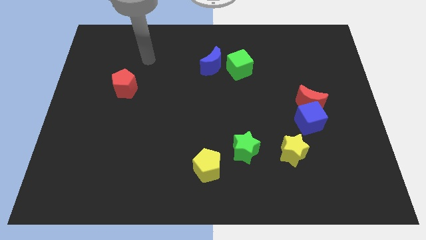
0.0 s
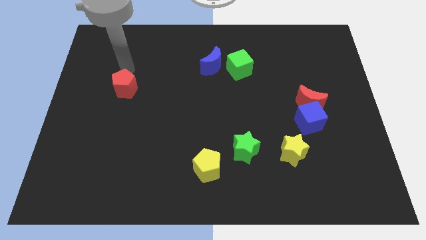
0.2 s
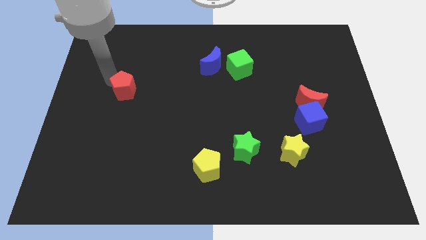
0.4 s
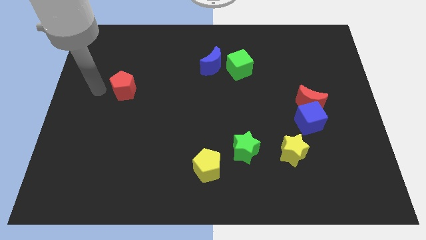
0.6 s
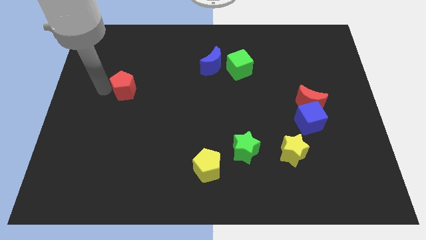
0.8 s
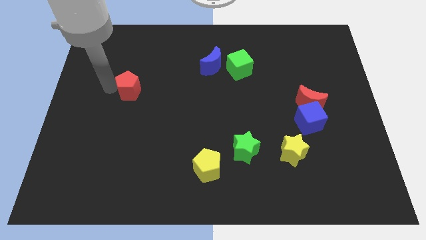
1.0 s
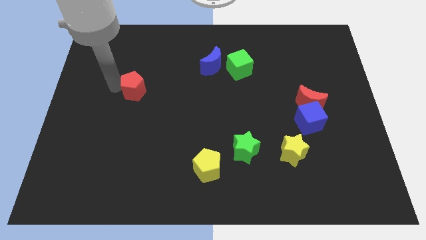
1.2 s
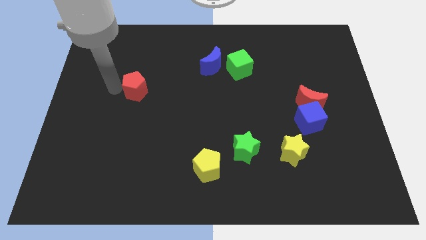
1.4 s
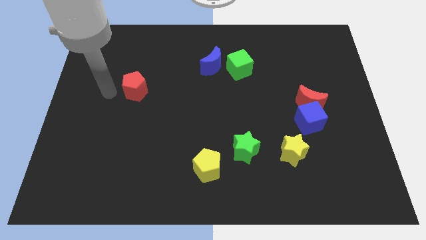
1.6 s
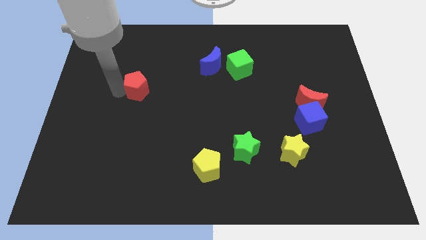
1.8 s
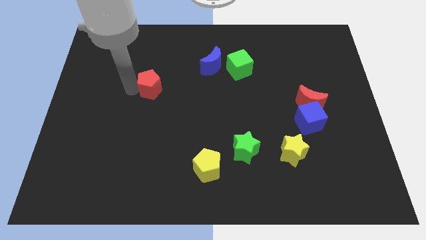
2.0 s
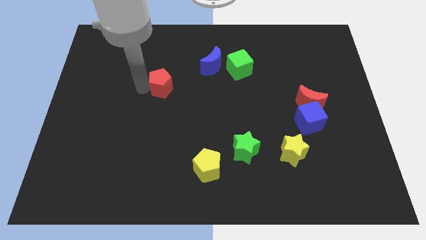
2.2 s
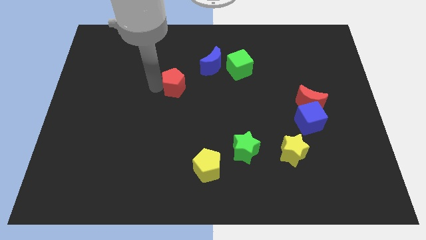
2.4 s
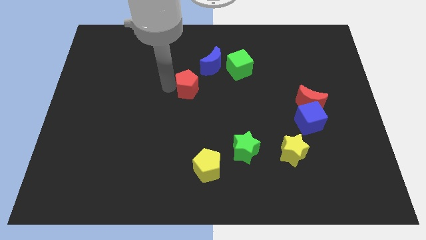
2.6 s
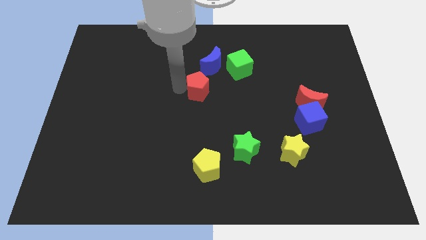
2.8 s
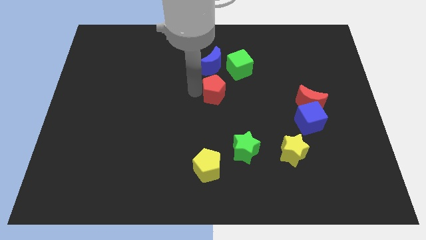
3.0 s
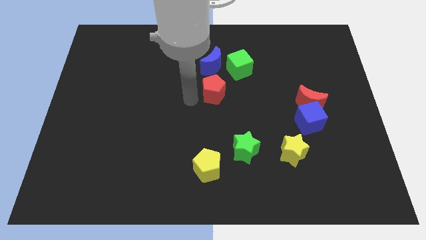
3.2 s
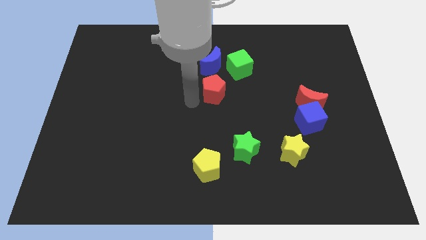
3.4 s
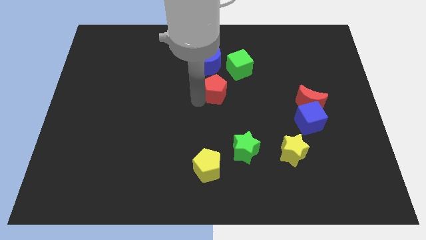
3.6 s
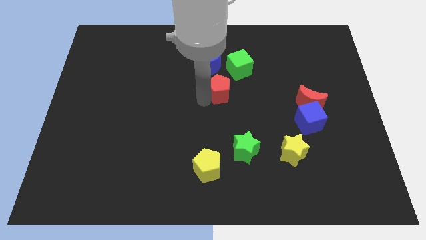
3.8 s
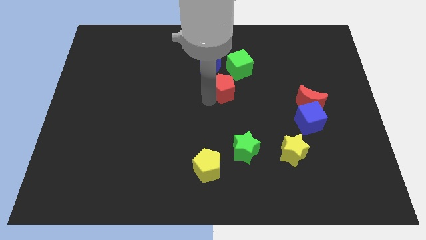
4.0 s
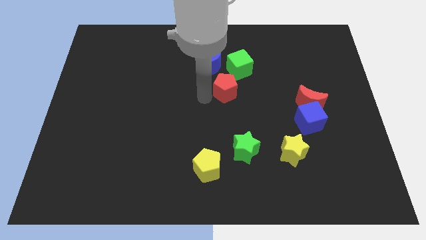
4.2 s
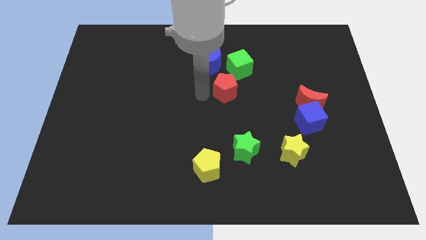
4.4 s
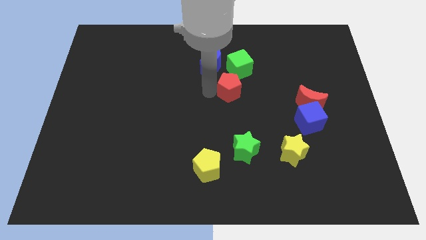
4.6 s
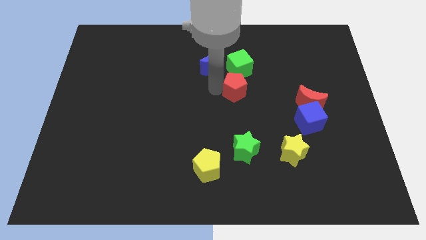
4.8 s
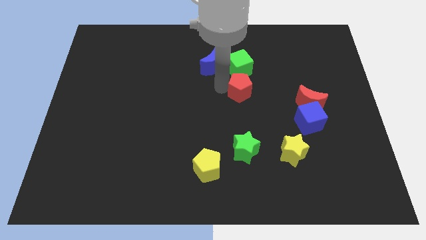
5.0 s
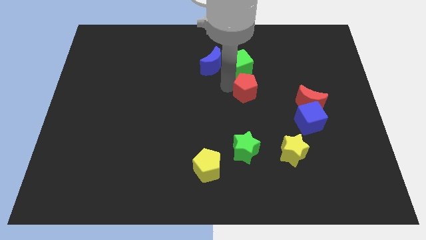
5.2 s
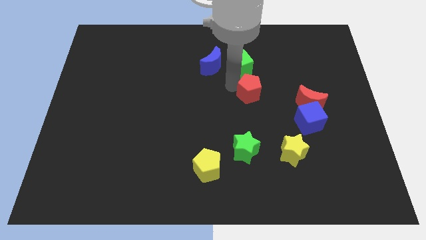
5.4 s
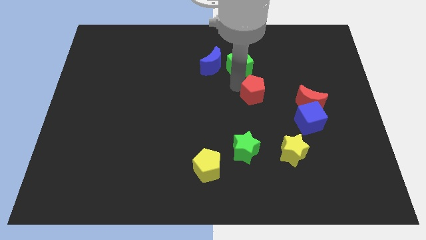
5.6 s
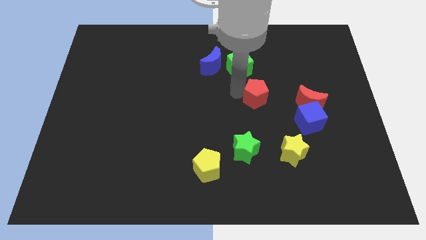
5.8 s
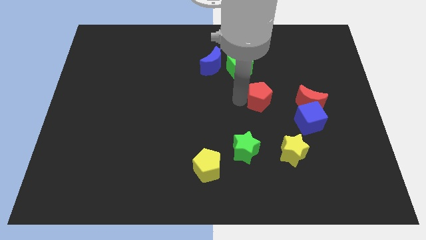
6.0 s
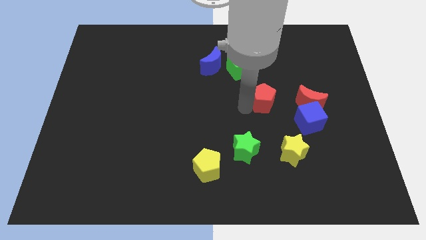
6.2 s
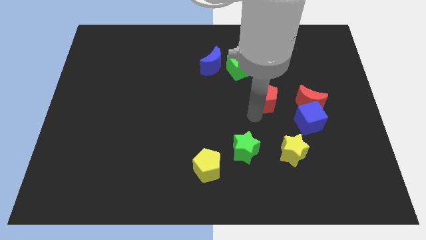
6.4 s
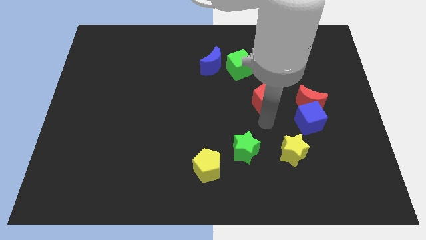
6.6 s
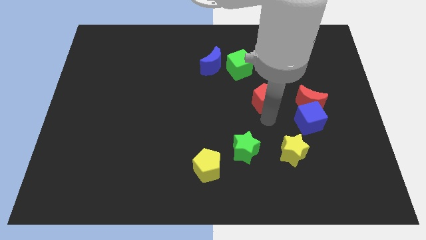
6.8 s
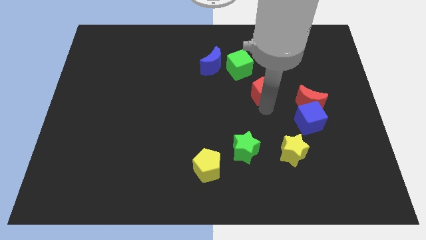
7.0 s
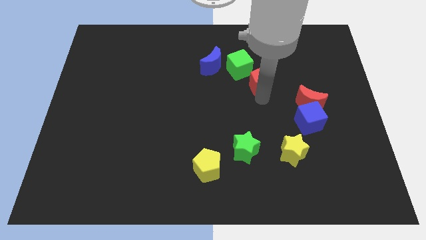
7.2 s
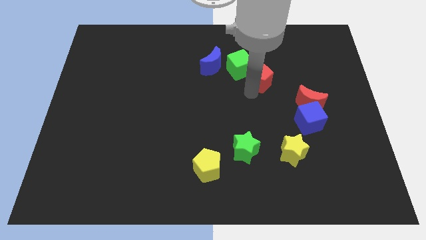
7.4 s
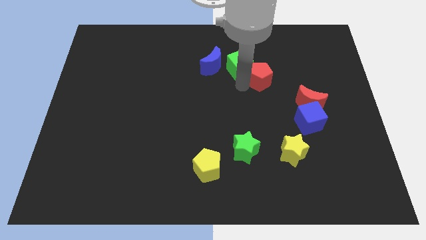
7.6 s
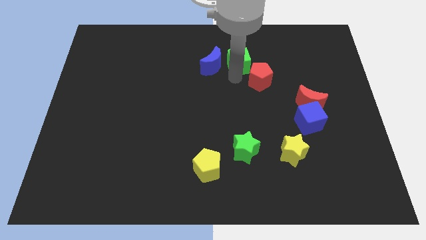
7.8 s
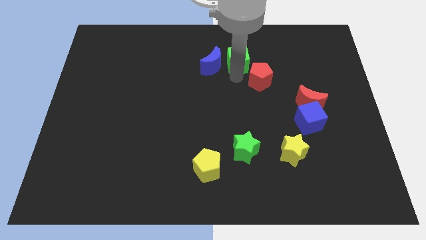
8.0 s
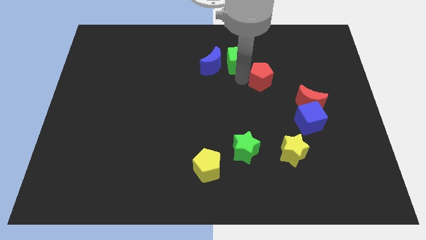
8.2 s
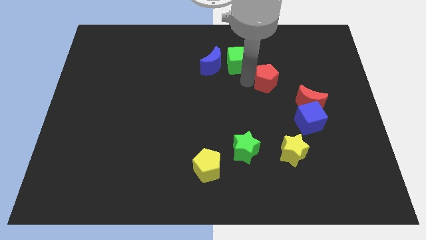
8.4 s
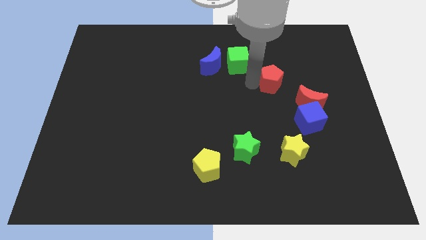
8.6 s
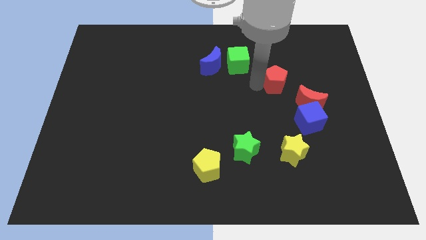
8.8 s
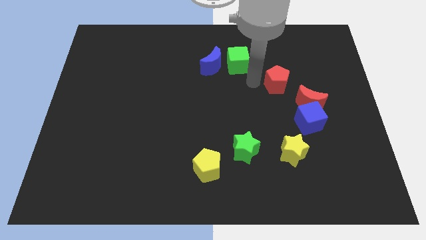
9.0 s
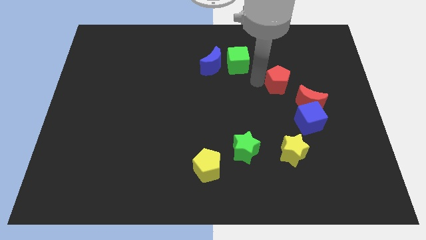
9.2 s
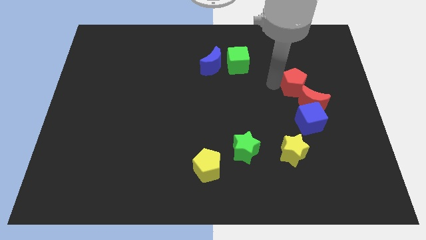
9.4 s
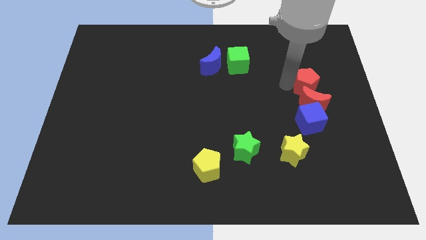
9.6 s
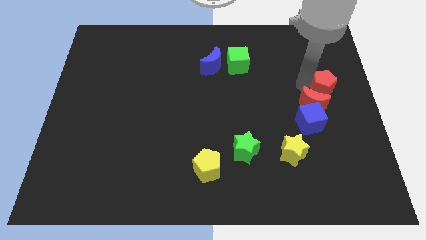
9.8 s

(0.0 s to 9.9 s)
slide the red pentagon to the center right

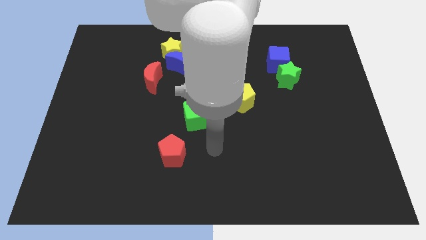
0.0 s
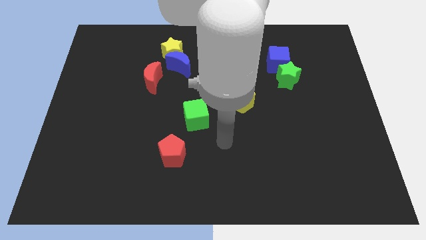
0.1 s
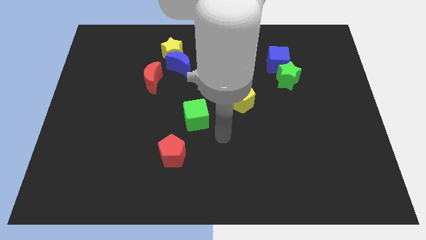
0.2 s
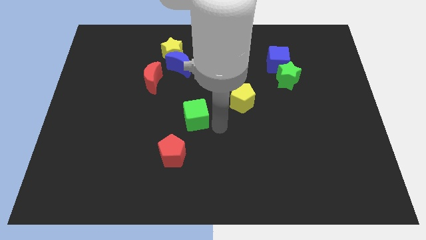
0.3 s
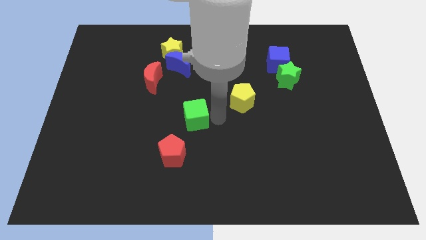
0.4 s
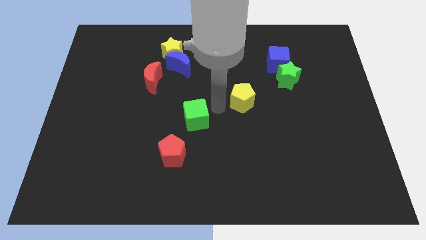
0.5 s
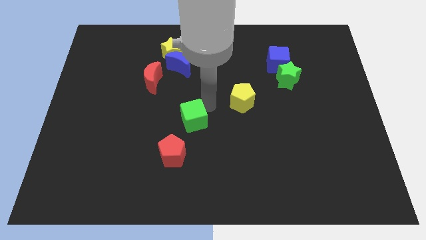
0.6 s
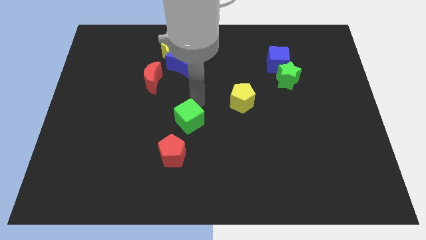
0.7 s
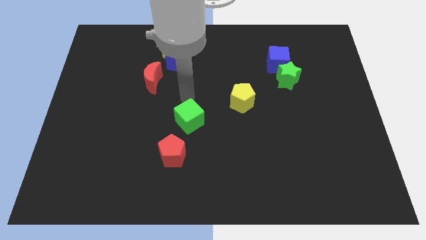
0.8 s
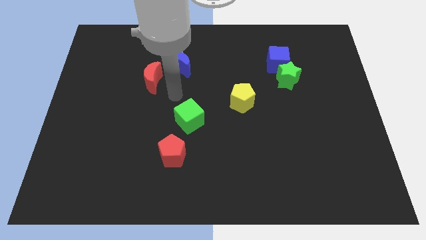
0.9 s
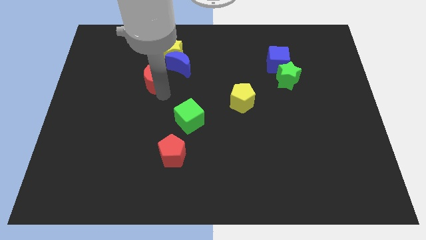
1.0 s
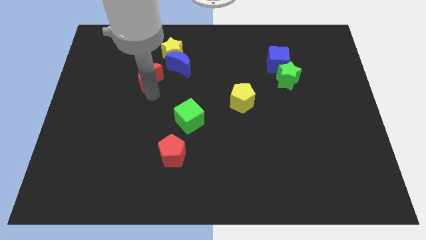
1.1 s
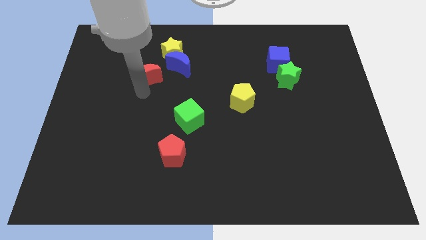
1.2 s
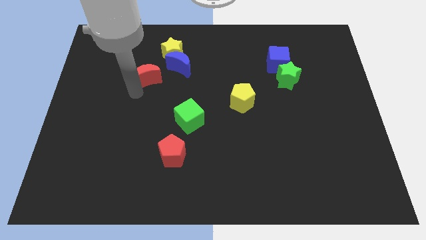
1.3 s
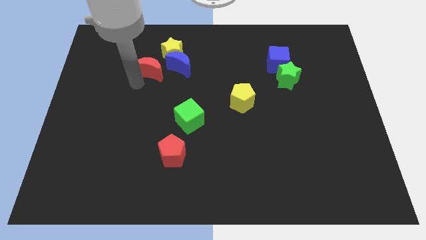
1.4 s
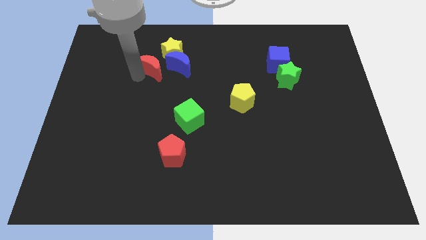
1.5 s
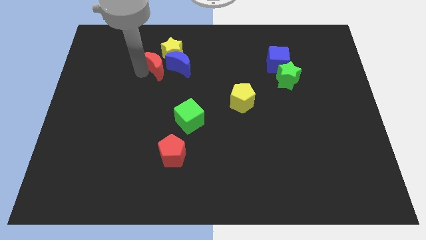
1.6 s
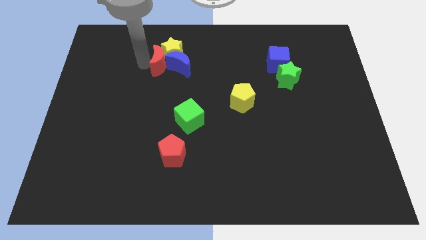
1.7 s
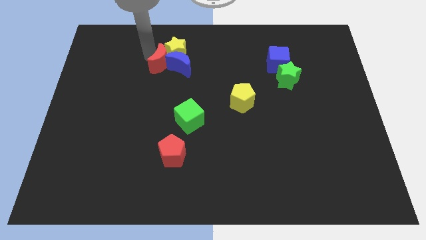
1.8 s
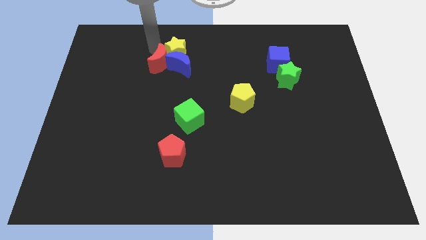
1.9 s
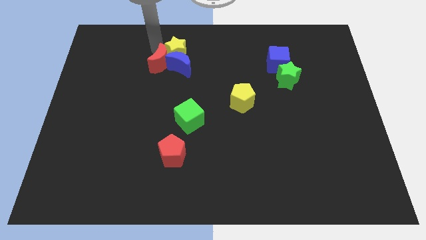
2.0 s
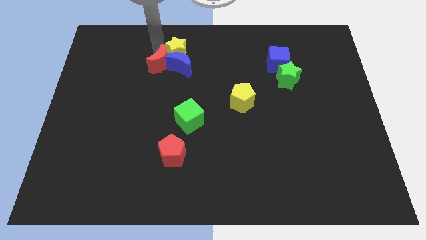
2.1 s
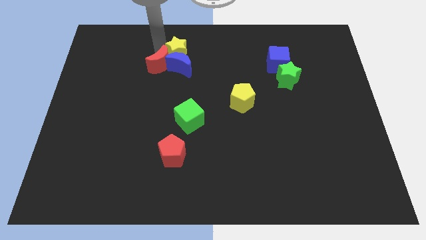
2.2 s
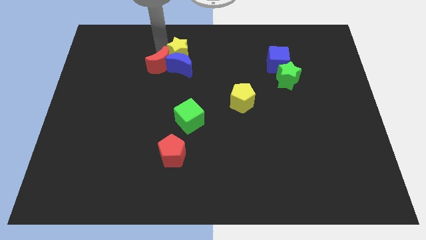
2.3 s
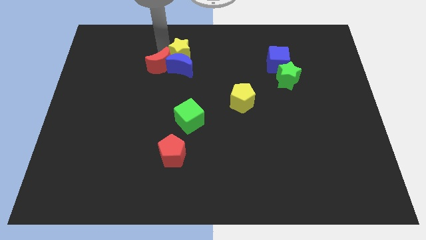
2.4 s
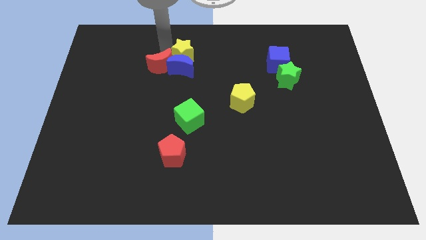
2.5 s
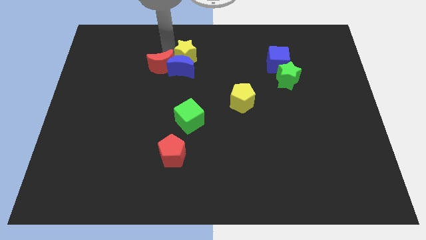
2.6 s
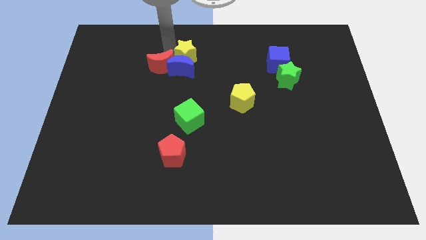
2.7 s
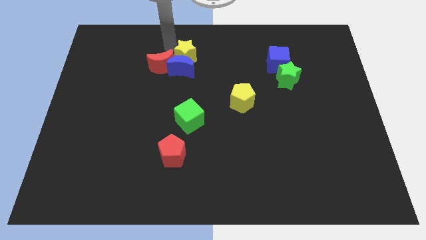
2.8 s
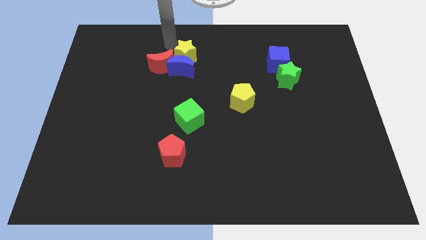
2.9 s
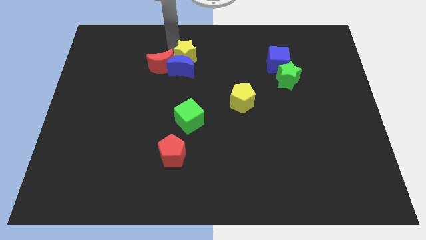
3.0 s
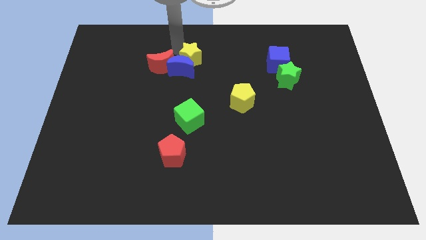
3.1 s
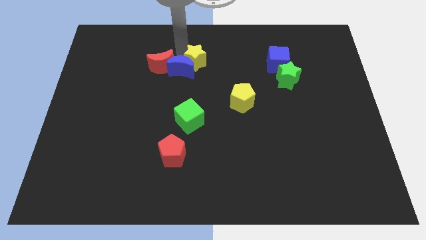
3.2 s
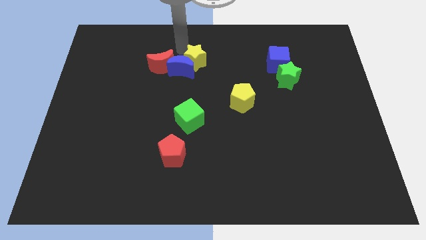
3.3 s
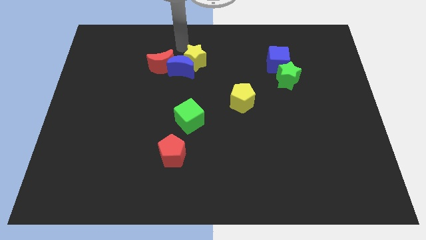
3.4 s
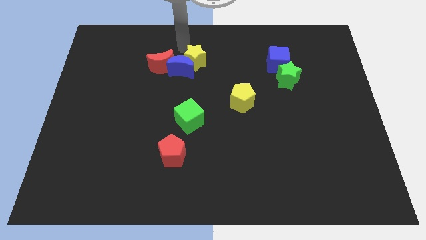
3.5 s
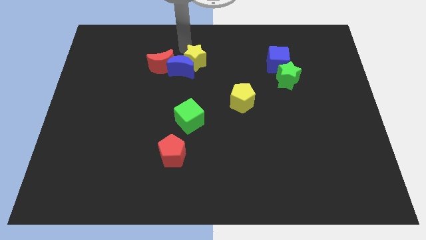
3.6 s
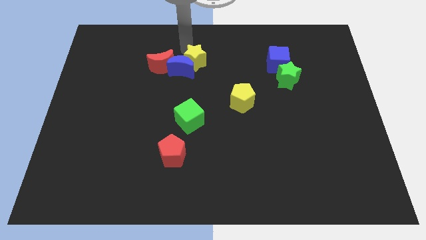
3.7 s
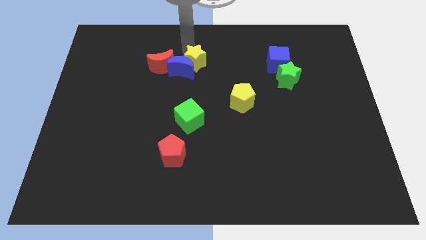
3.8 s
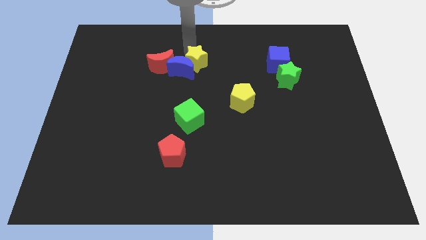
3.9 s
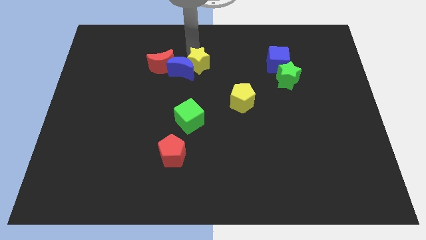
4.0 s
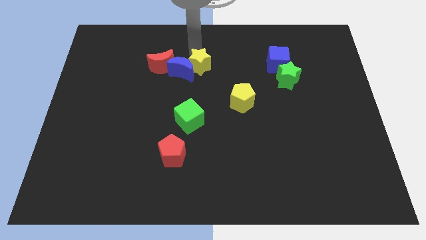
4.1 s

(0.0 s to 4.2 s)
put the yellow star to the center of the board
